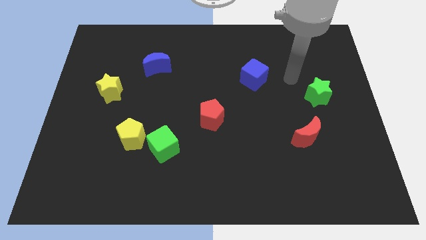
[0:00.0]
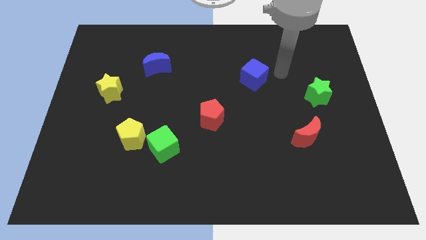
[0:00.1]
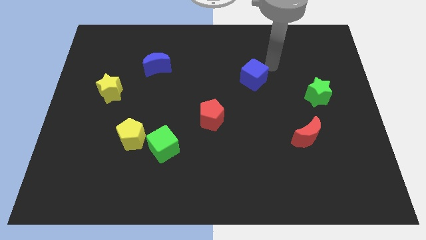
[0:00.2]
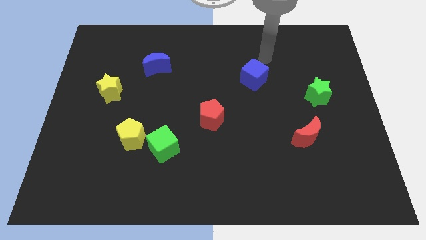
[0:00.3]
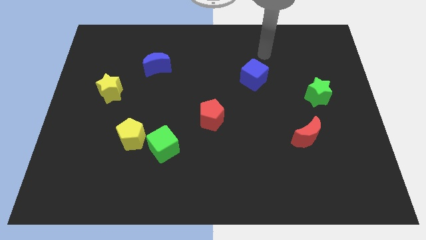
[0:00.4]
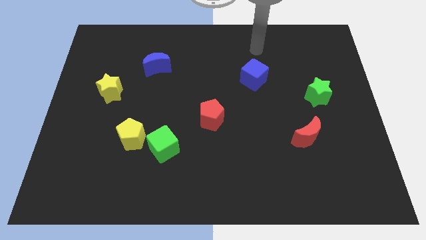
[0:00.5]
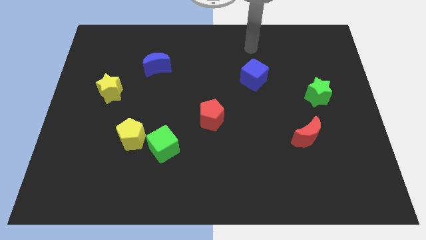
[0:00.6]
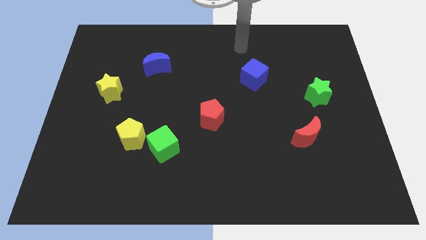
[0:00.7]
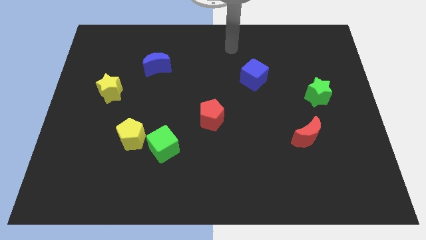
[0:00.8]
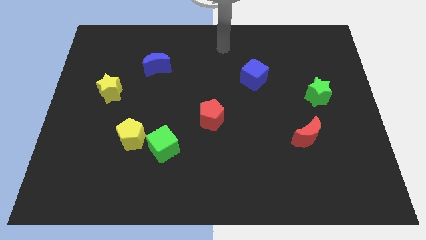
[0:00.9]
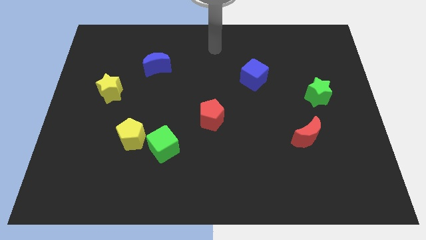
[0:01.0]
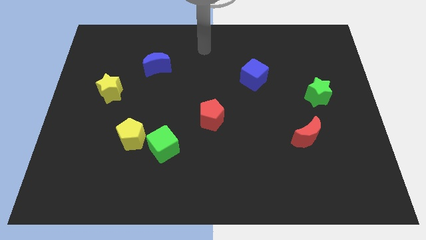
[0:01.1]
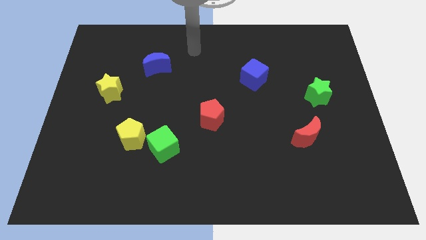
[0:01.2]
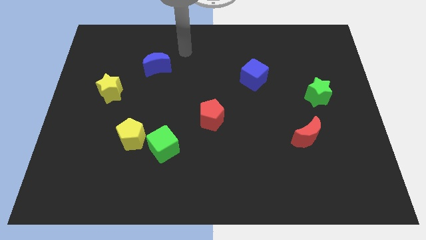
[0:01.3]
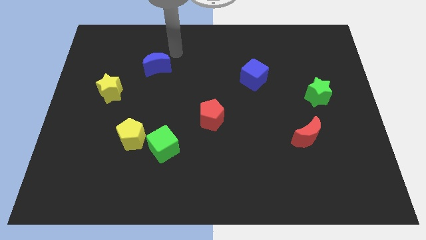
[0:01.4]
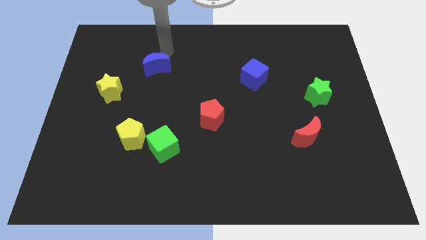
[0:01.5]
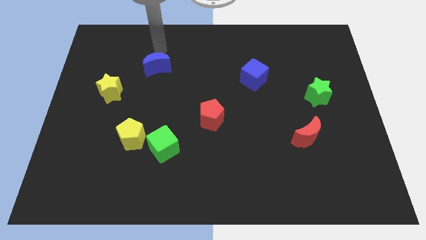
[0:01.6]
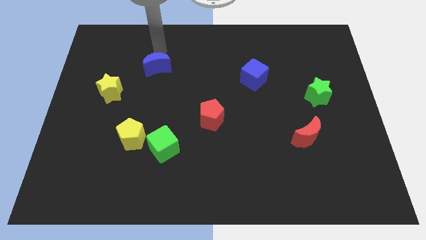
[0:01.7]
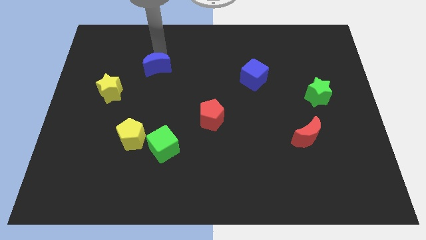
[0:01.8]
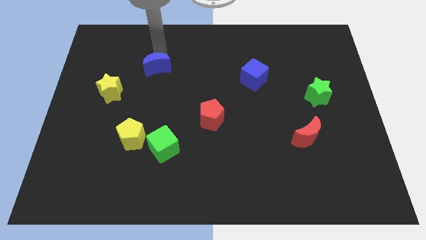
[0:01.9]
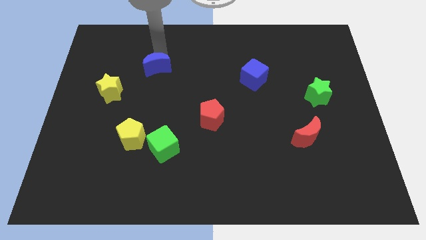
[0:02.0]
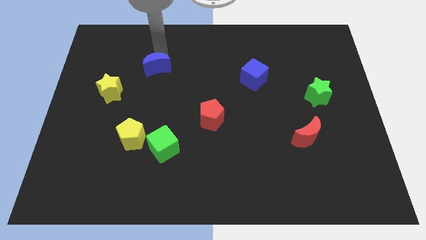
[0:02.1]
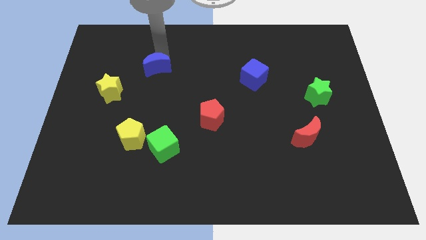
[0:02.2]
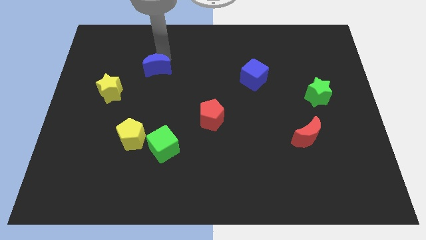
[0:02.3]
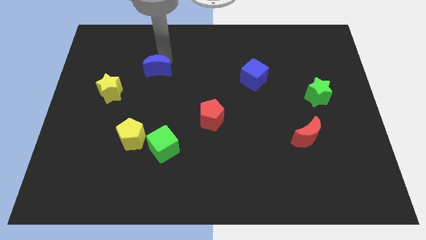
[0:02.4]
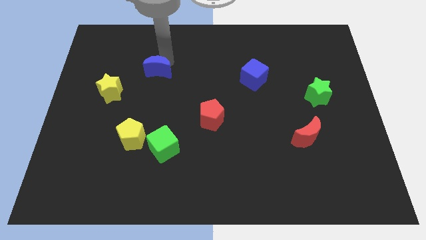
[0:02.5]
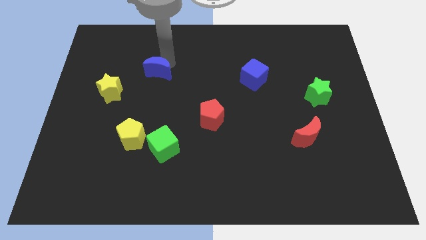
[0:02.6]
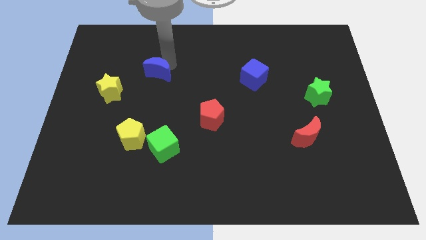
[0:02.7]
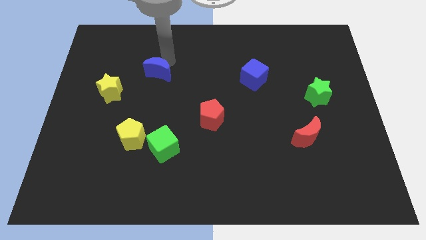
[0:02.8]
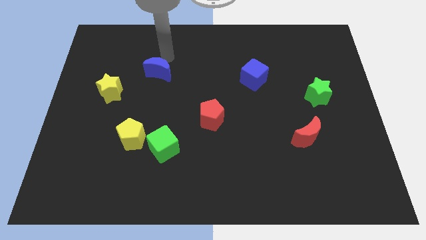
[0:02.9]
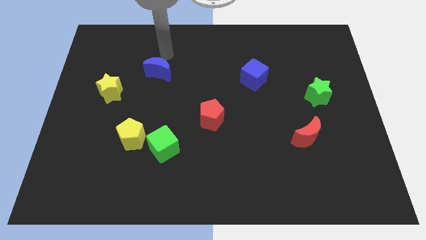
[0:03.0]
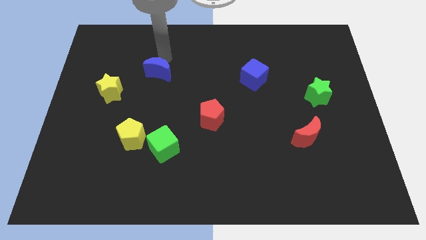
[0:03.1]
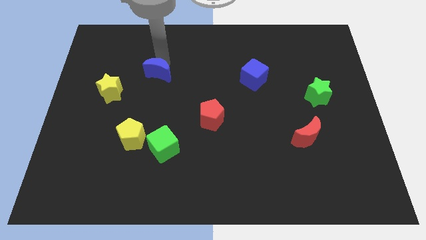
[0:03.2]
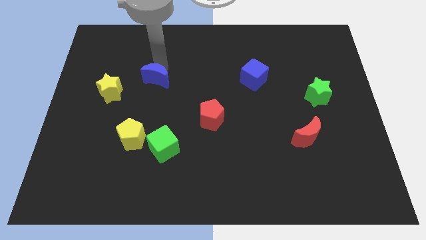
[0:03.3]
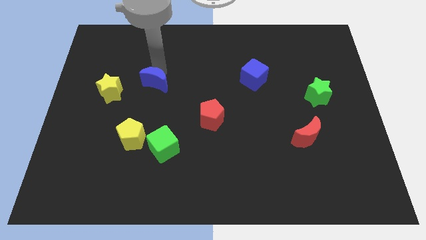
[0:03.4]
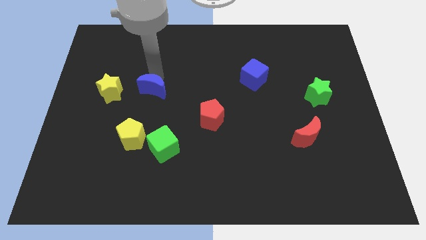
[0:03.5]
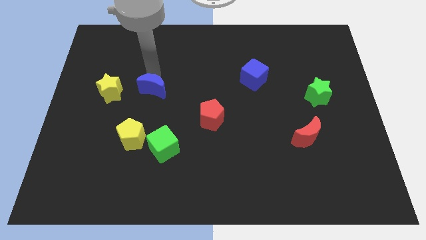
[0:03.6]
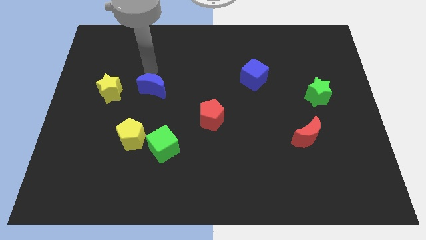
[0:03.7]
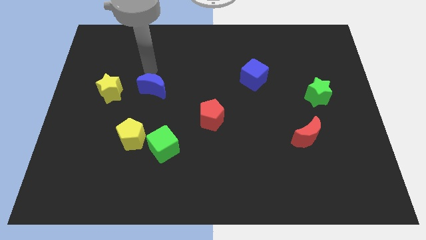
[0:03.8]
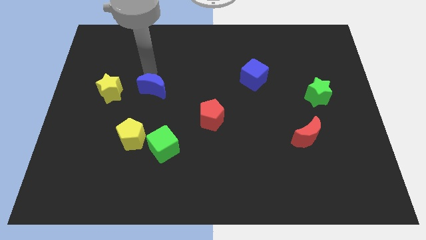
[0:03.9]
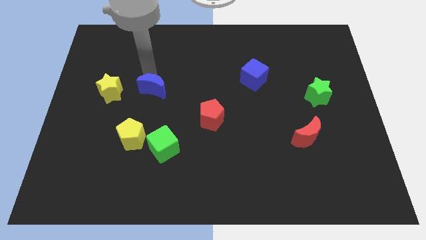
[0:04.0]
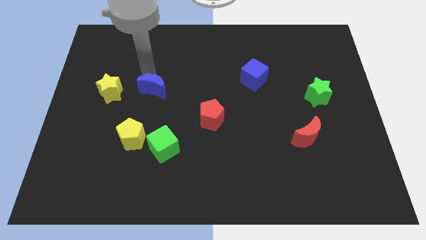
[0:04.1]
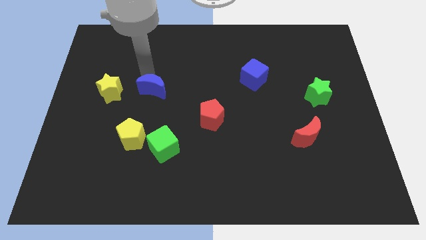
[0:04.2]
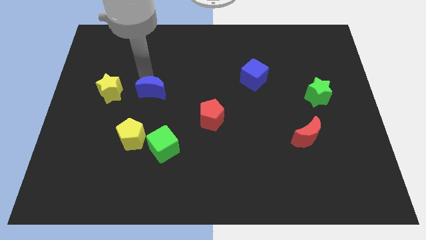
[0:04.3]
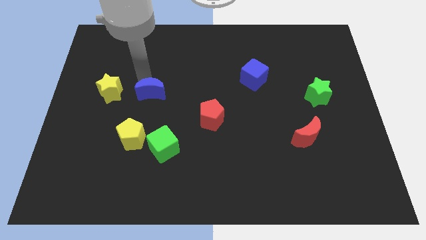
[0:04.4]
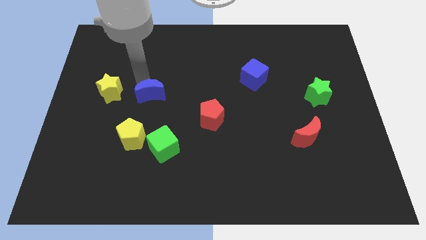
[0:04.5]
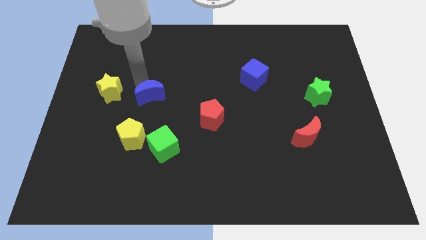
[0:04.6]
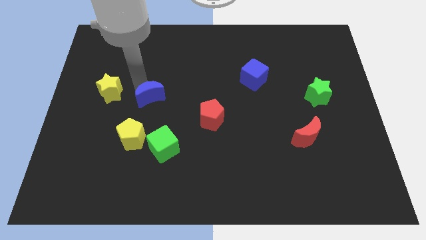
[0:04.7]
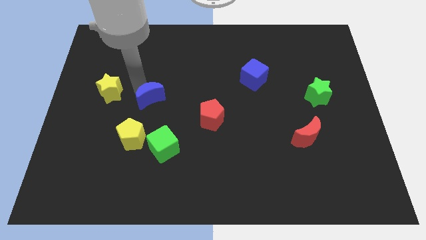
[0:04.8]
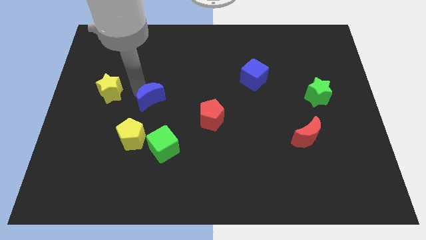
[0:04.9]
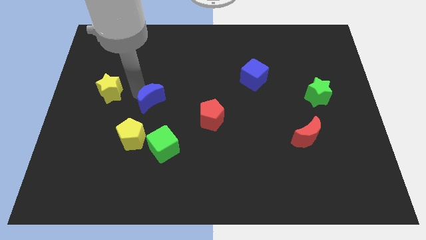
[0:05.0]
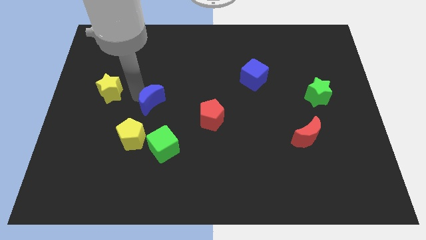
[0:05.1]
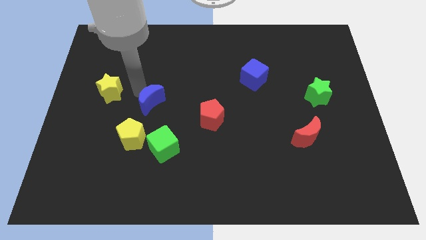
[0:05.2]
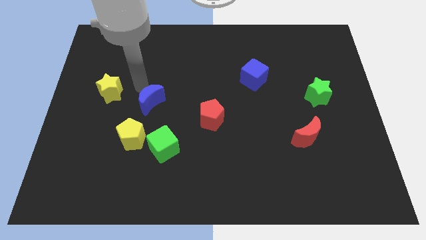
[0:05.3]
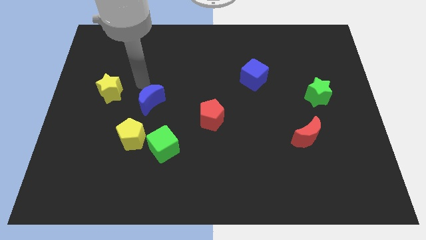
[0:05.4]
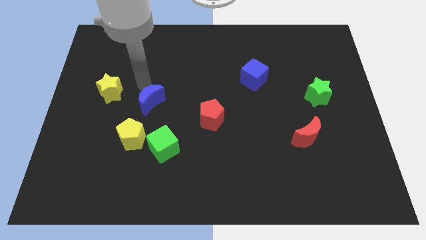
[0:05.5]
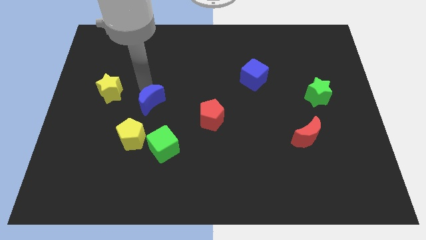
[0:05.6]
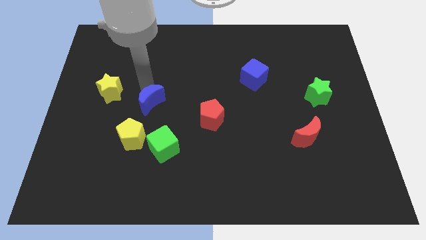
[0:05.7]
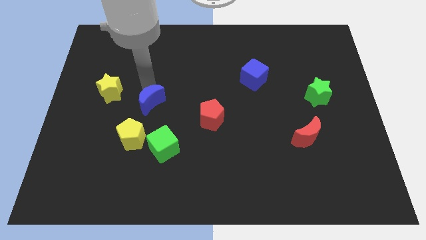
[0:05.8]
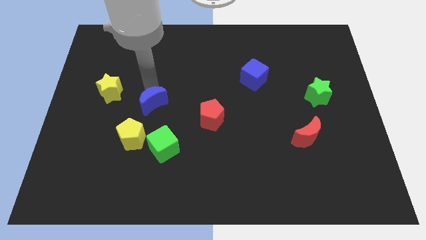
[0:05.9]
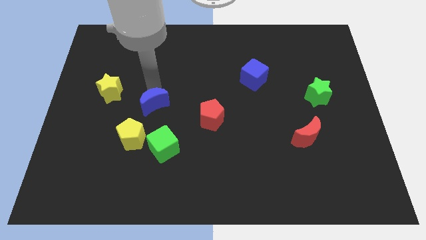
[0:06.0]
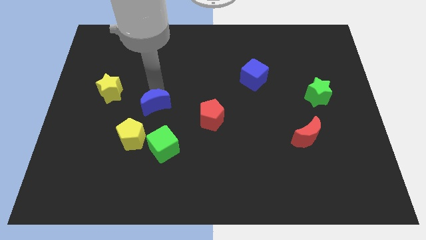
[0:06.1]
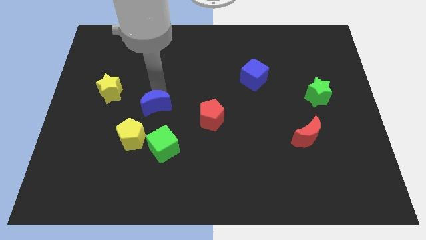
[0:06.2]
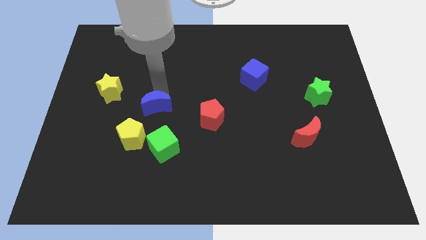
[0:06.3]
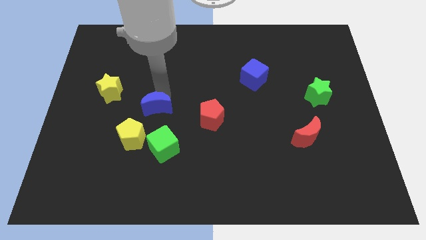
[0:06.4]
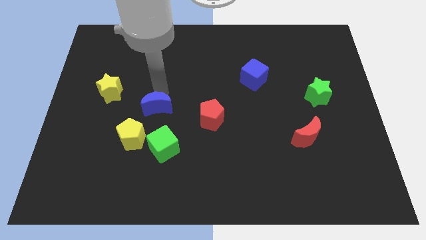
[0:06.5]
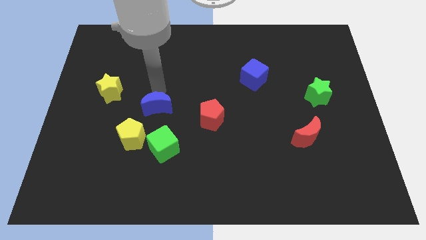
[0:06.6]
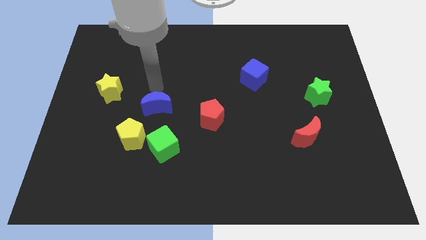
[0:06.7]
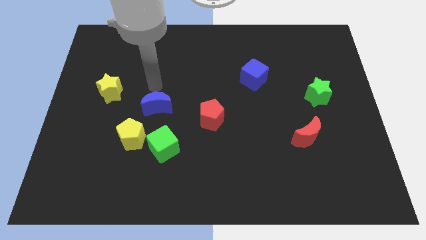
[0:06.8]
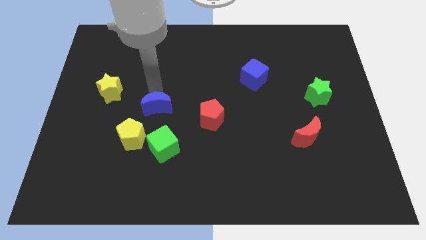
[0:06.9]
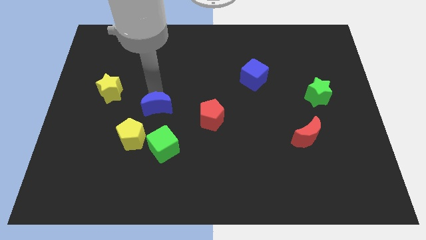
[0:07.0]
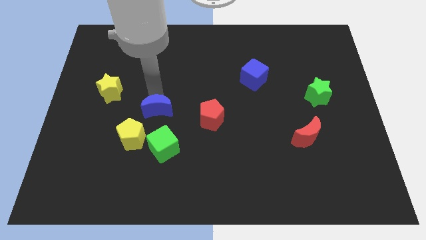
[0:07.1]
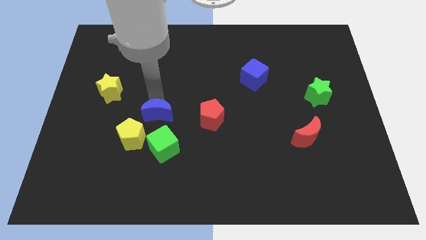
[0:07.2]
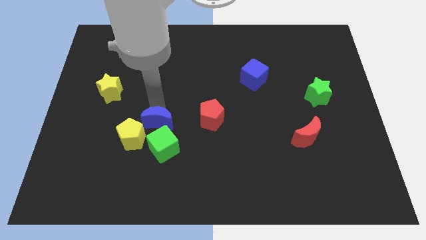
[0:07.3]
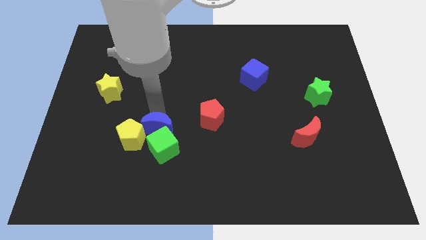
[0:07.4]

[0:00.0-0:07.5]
push the blue moon close to the green cube

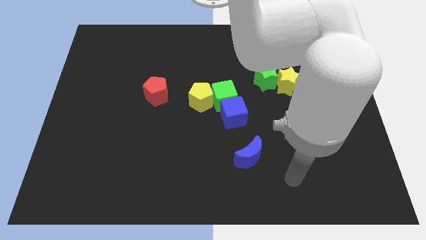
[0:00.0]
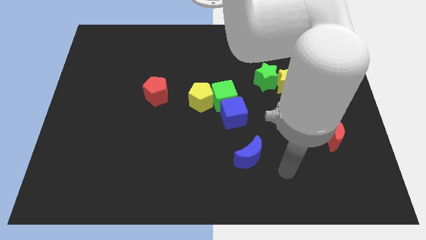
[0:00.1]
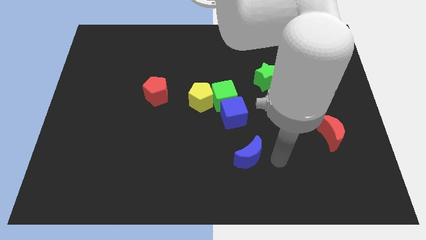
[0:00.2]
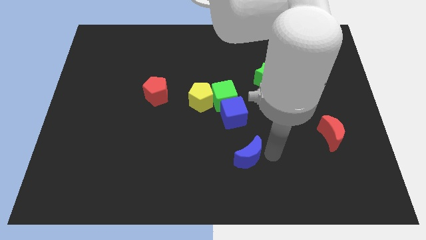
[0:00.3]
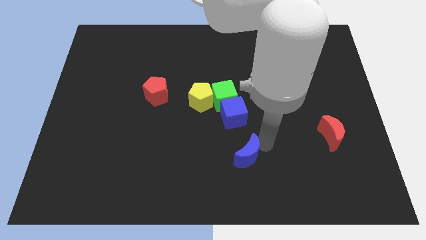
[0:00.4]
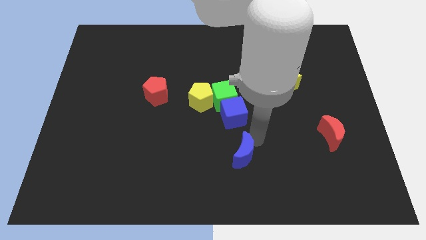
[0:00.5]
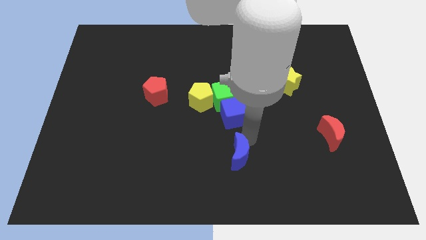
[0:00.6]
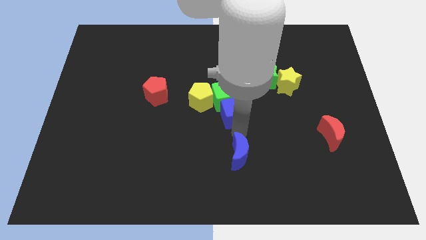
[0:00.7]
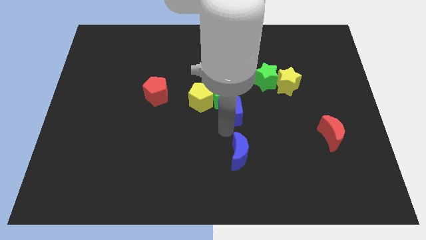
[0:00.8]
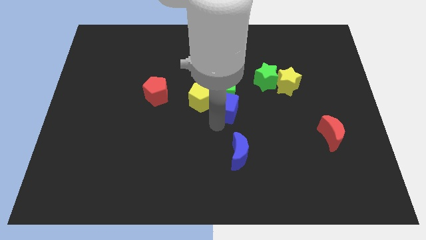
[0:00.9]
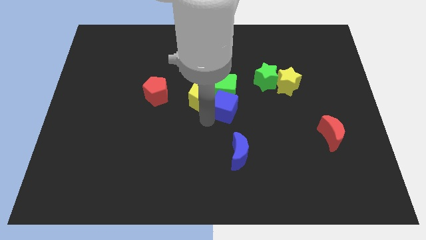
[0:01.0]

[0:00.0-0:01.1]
put the yellow pentagon close to the blue cube
